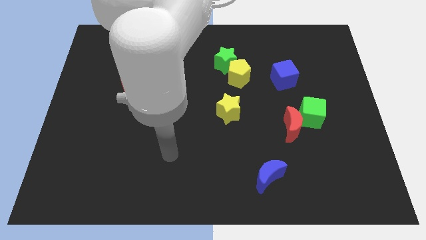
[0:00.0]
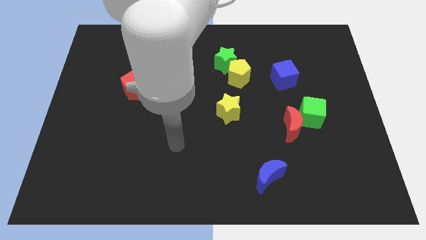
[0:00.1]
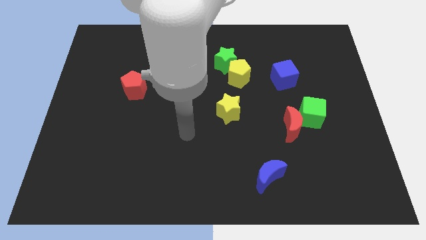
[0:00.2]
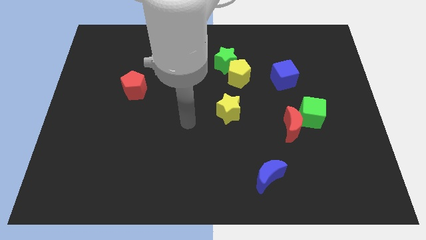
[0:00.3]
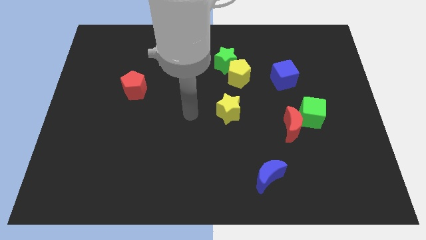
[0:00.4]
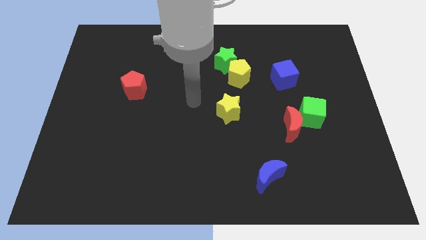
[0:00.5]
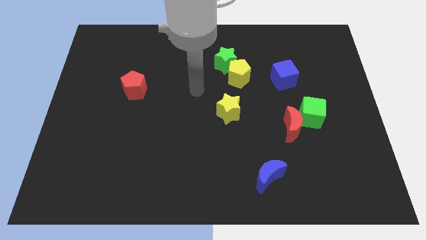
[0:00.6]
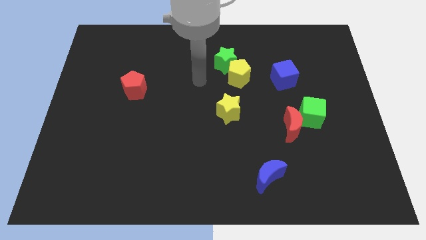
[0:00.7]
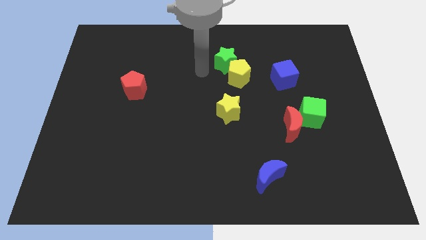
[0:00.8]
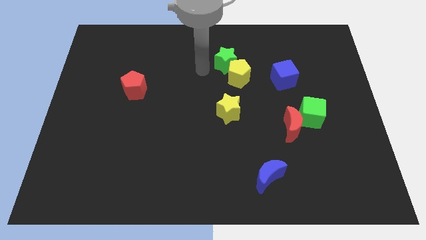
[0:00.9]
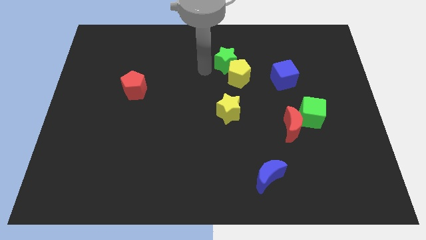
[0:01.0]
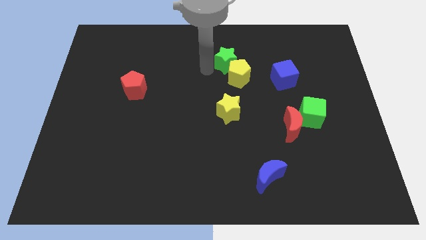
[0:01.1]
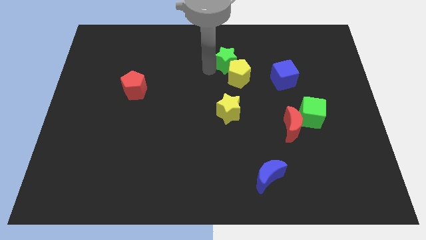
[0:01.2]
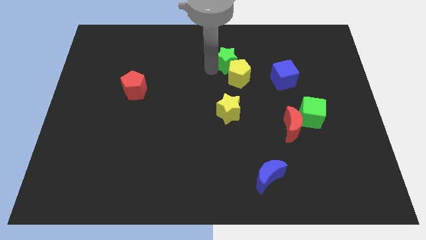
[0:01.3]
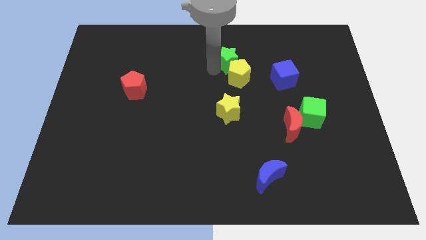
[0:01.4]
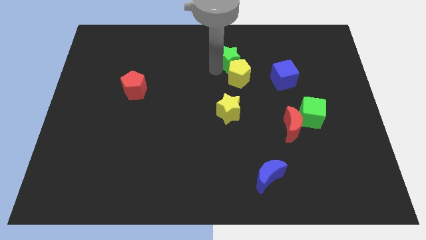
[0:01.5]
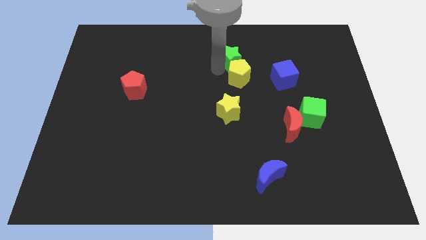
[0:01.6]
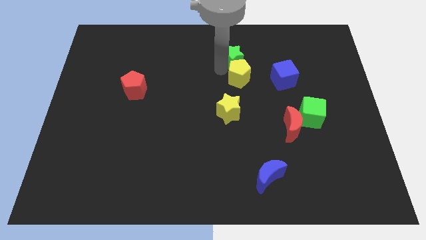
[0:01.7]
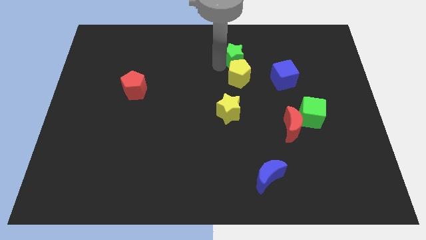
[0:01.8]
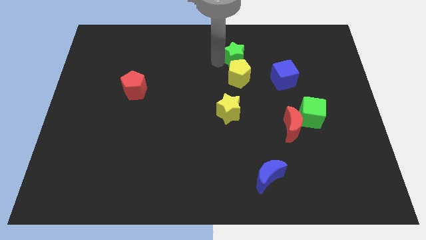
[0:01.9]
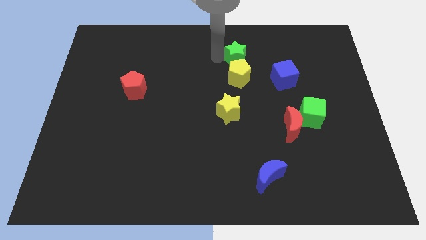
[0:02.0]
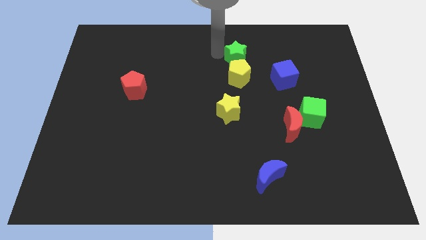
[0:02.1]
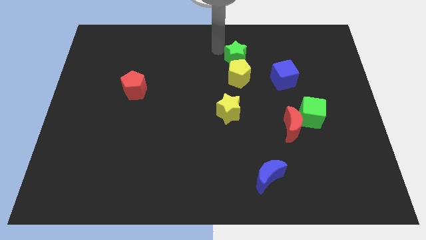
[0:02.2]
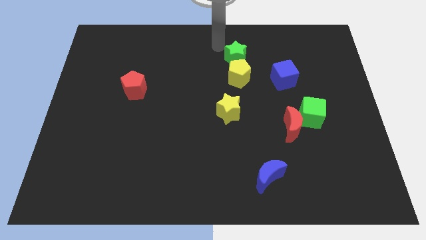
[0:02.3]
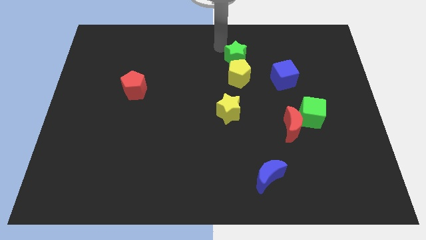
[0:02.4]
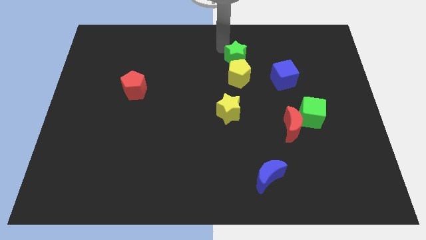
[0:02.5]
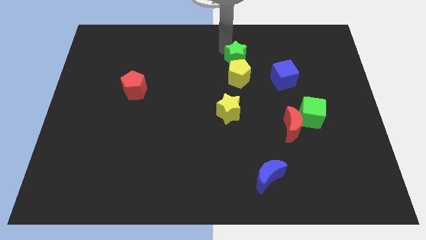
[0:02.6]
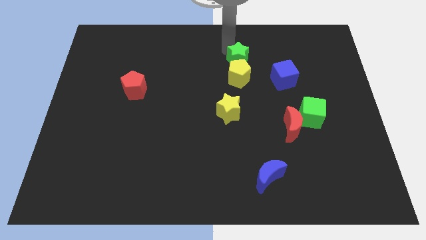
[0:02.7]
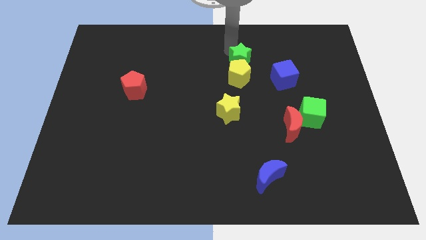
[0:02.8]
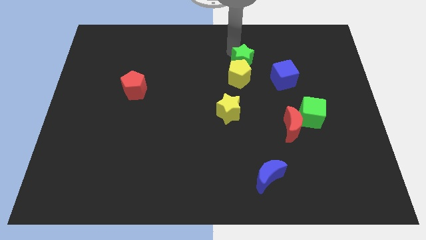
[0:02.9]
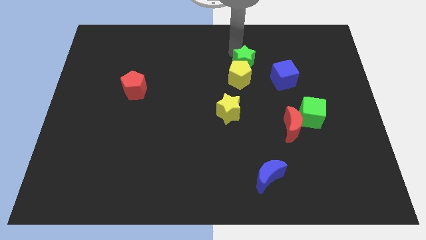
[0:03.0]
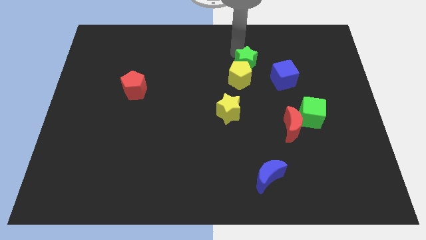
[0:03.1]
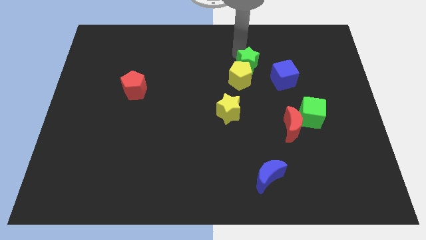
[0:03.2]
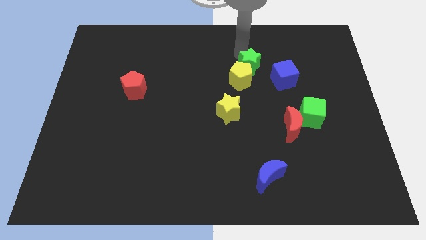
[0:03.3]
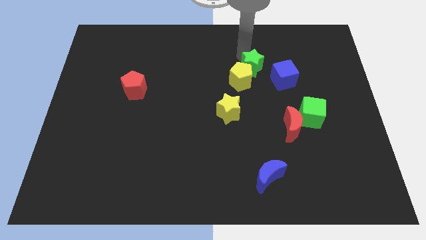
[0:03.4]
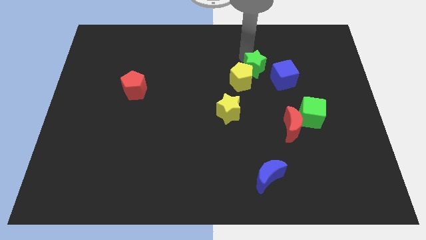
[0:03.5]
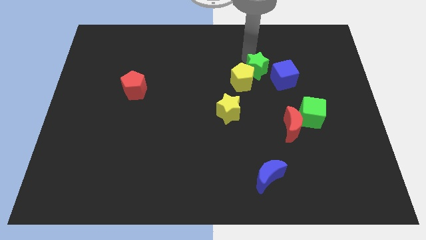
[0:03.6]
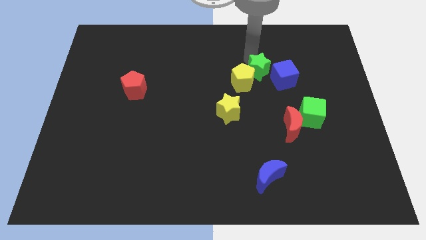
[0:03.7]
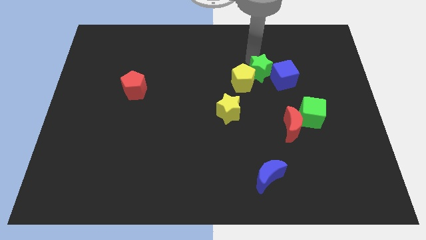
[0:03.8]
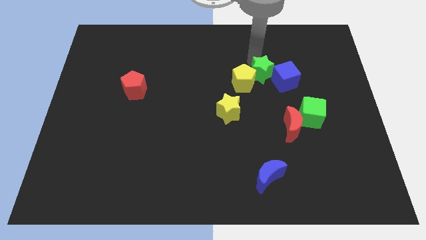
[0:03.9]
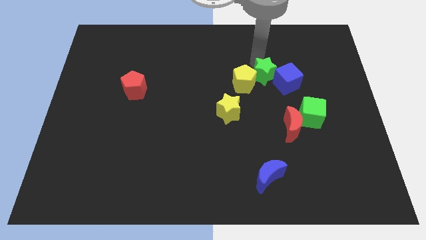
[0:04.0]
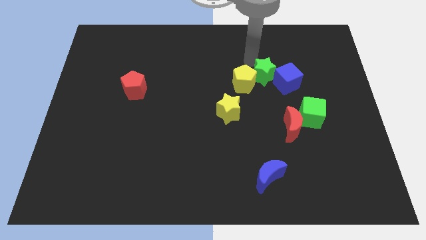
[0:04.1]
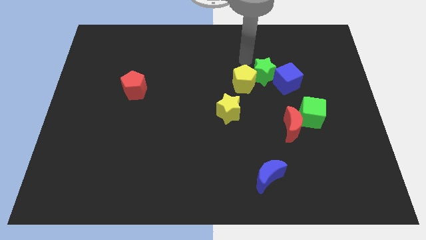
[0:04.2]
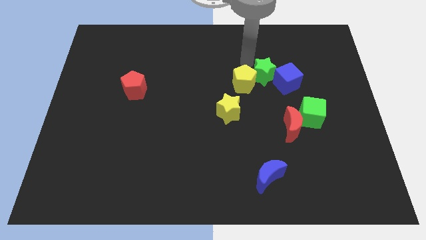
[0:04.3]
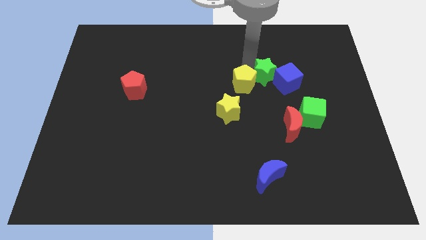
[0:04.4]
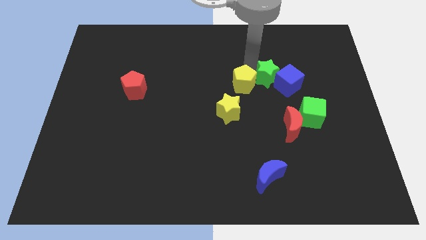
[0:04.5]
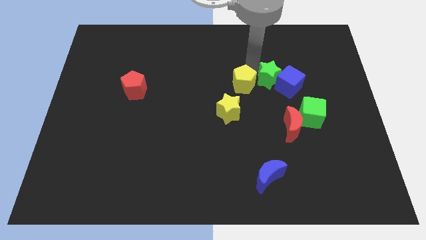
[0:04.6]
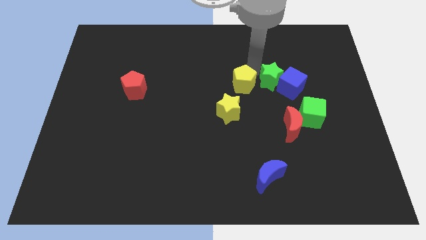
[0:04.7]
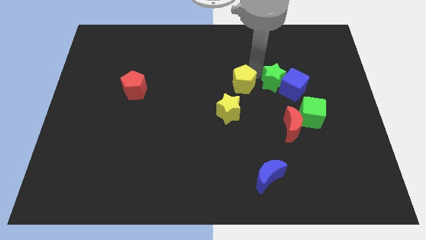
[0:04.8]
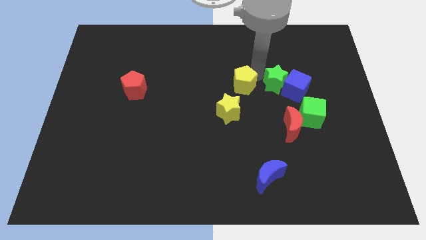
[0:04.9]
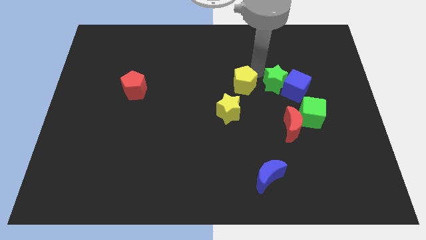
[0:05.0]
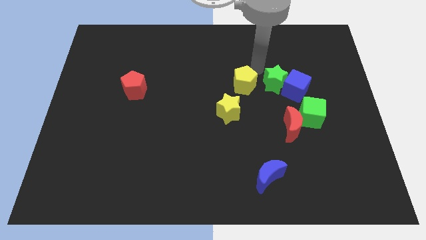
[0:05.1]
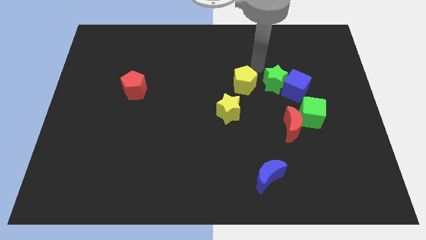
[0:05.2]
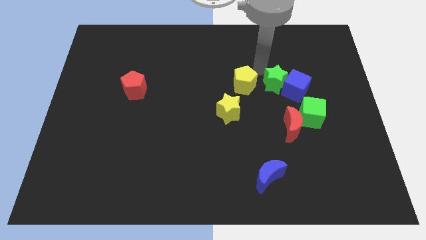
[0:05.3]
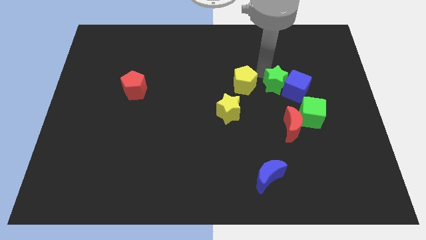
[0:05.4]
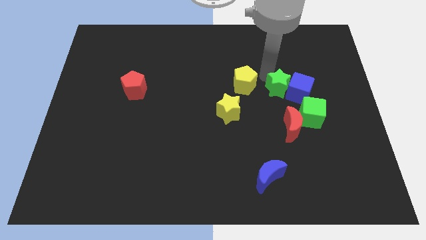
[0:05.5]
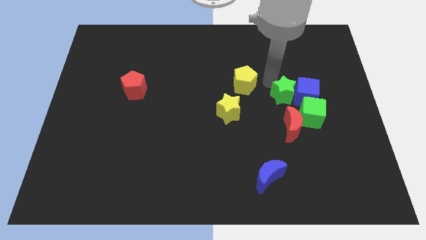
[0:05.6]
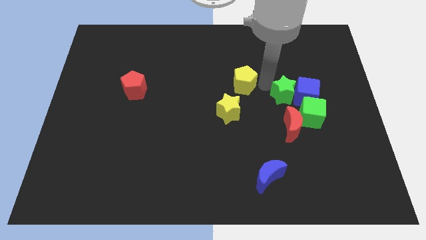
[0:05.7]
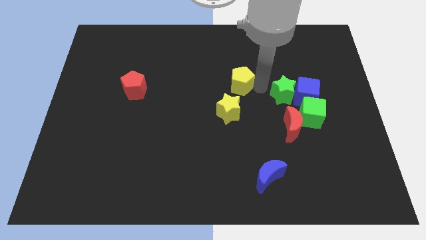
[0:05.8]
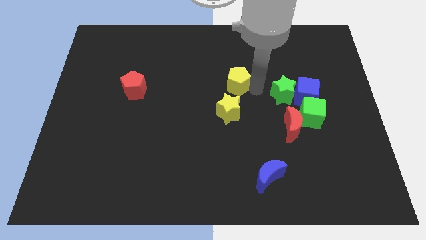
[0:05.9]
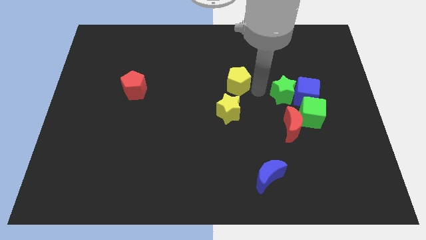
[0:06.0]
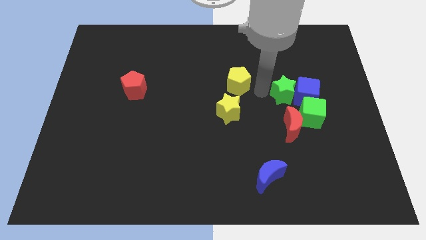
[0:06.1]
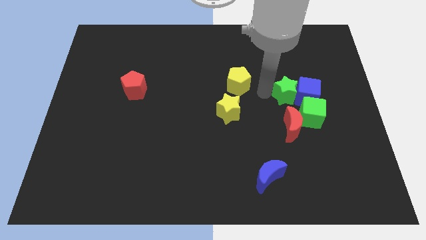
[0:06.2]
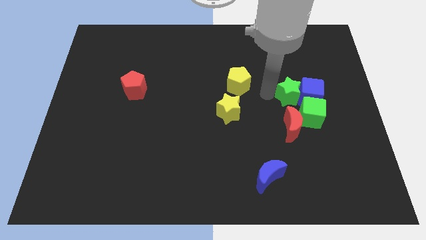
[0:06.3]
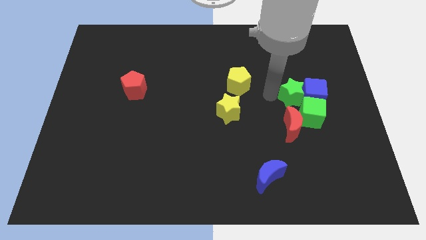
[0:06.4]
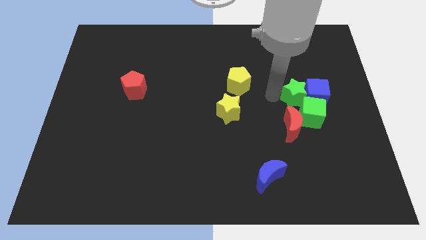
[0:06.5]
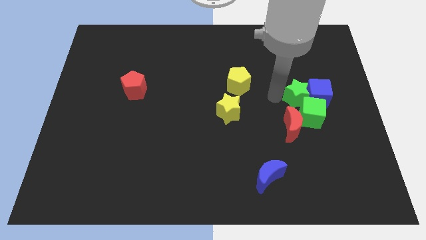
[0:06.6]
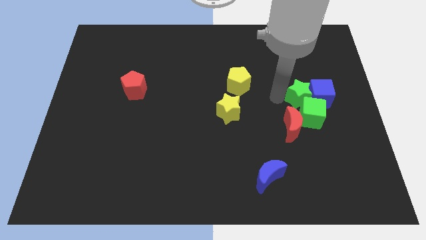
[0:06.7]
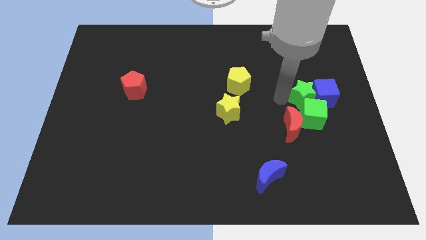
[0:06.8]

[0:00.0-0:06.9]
move the green star down and to the right diagonally

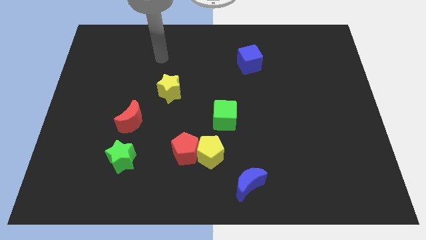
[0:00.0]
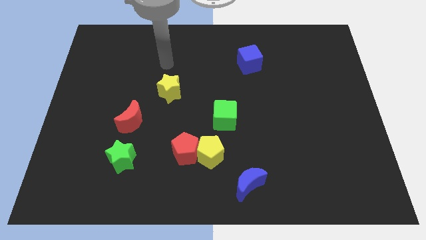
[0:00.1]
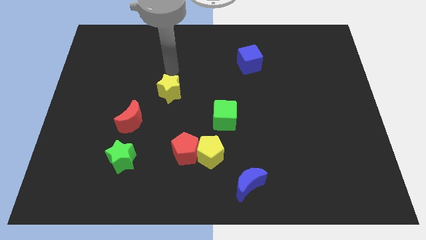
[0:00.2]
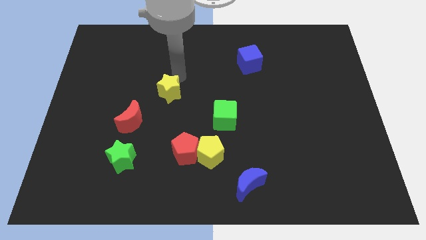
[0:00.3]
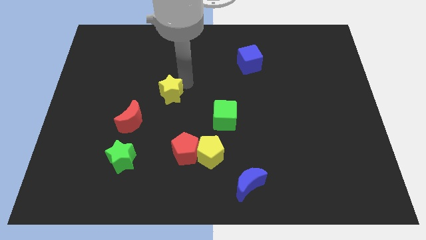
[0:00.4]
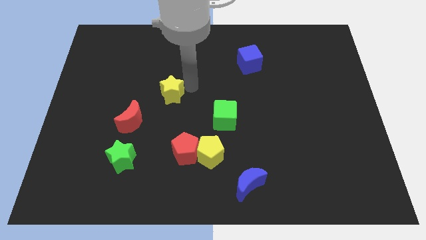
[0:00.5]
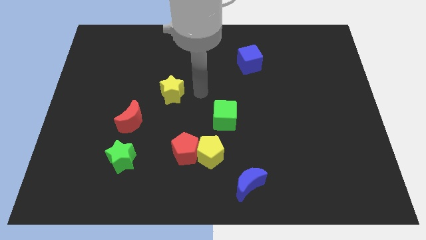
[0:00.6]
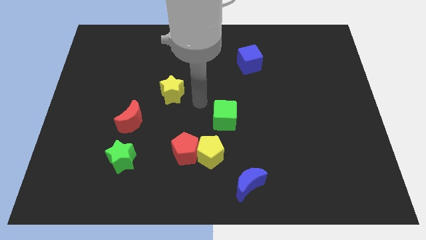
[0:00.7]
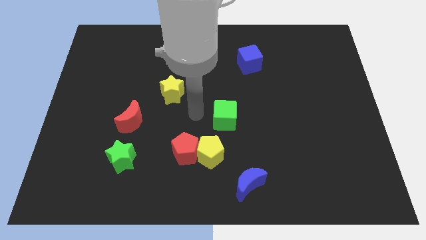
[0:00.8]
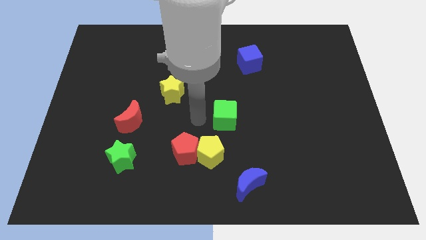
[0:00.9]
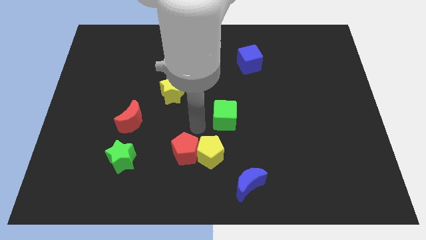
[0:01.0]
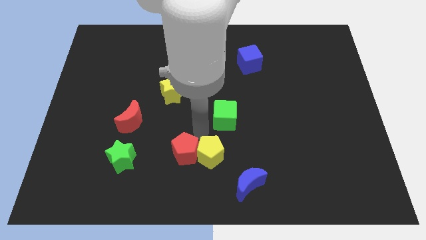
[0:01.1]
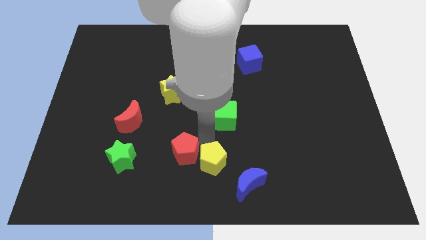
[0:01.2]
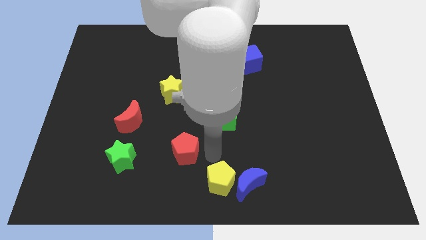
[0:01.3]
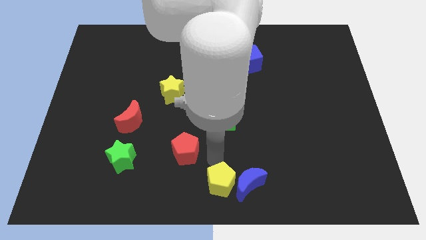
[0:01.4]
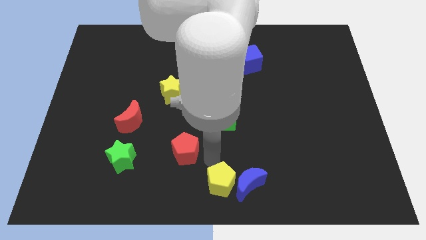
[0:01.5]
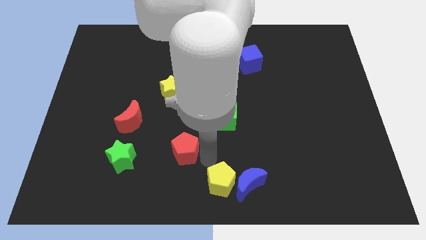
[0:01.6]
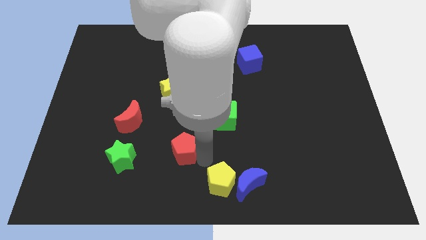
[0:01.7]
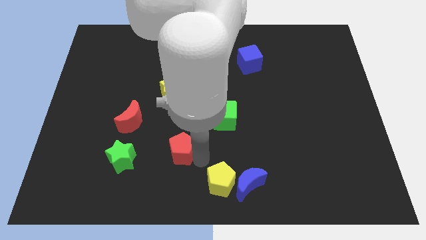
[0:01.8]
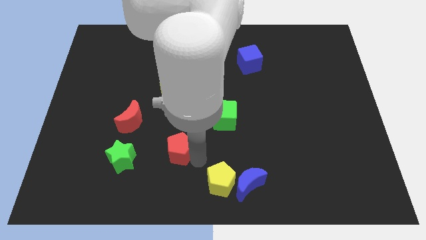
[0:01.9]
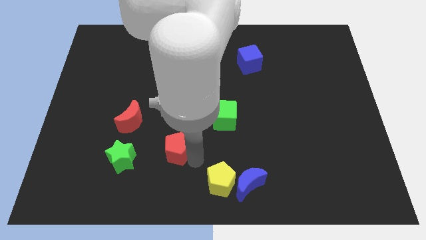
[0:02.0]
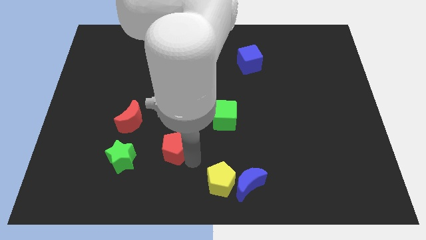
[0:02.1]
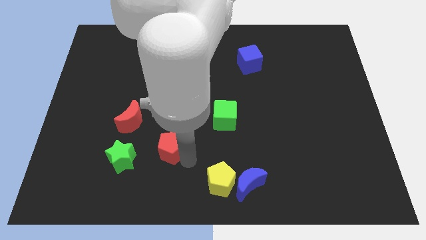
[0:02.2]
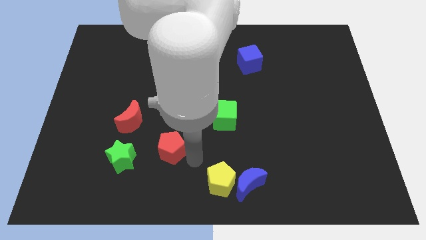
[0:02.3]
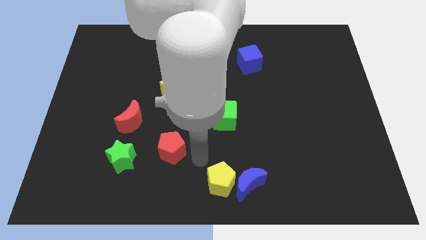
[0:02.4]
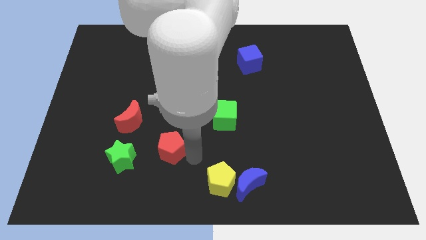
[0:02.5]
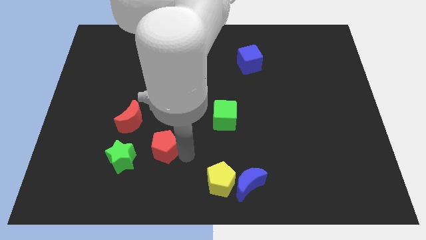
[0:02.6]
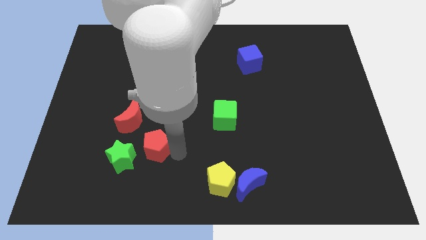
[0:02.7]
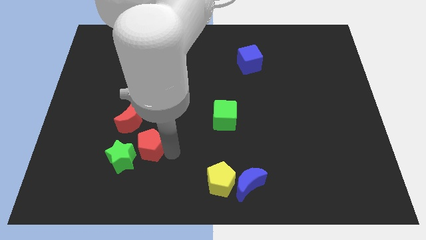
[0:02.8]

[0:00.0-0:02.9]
slide the red pentagon to the left somewhat
